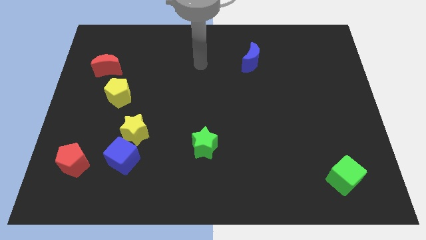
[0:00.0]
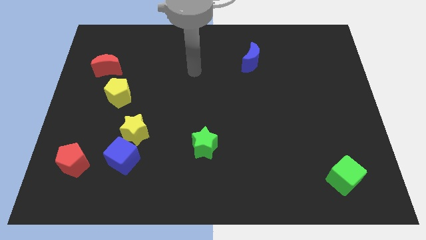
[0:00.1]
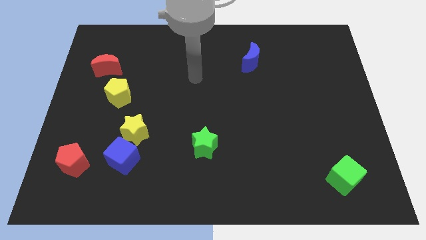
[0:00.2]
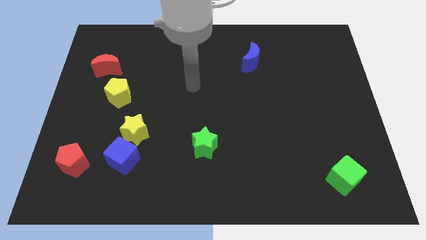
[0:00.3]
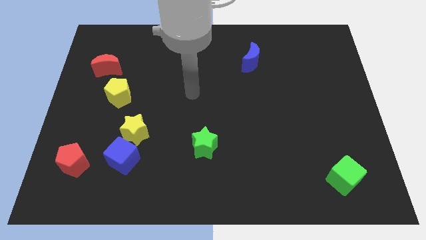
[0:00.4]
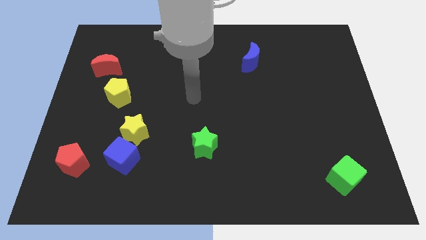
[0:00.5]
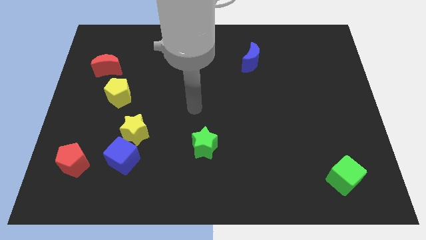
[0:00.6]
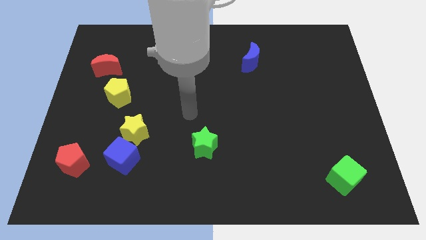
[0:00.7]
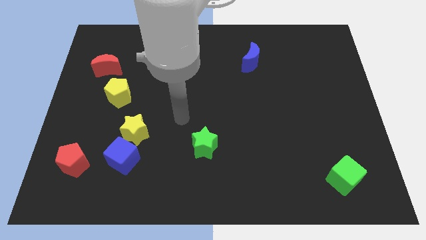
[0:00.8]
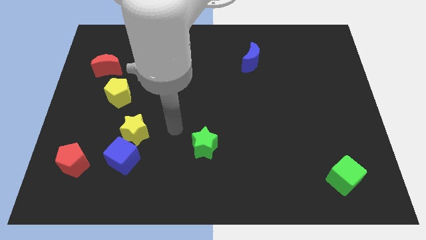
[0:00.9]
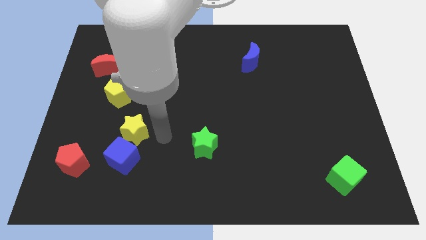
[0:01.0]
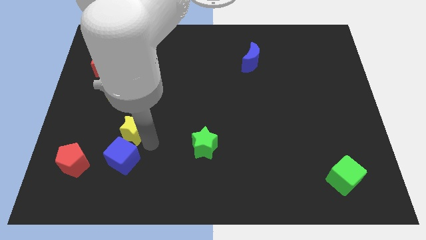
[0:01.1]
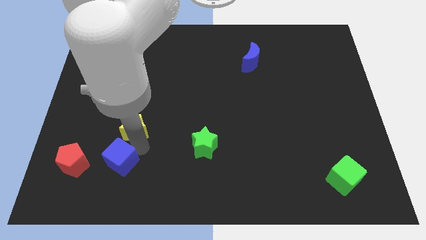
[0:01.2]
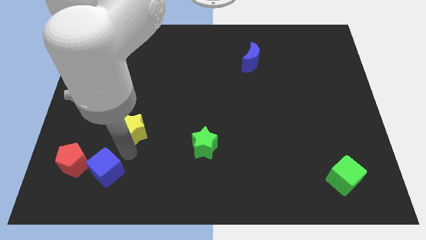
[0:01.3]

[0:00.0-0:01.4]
move the yellow star away from the blue cube

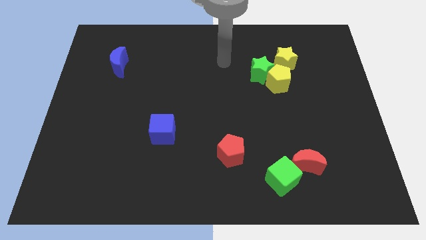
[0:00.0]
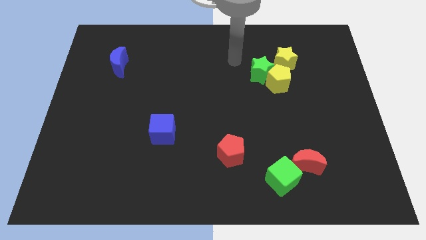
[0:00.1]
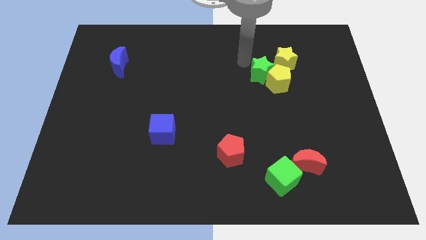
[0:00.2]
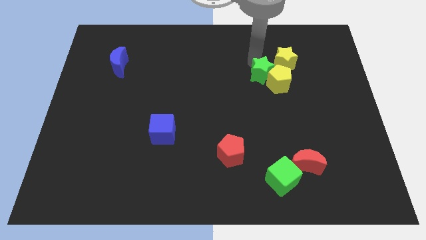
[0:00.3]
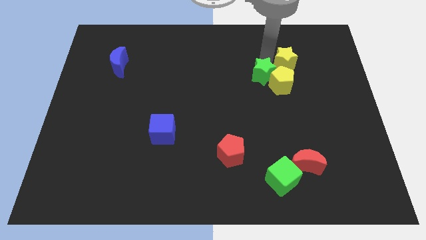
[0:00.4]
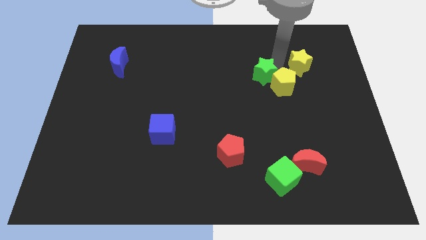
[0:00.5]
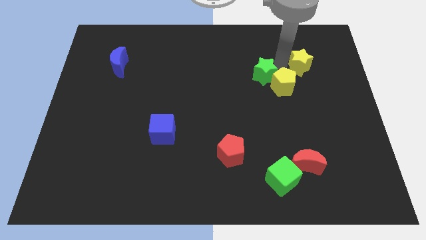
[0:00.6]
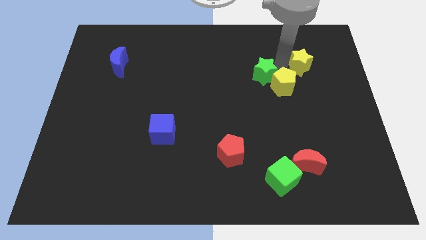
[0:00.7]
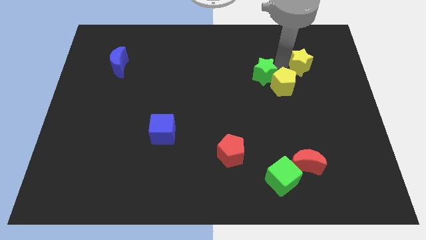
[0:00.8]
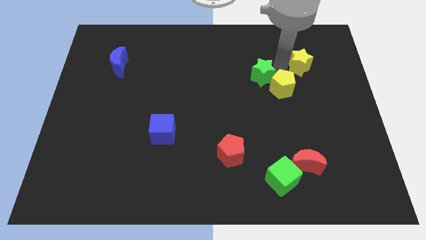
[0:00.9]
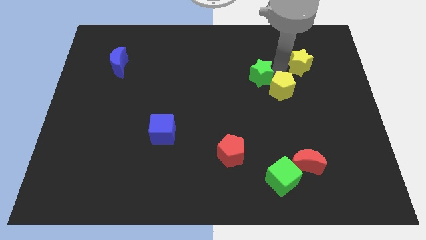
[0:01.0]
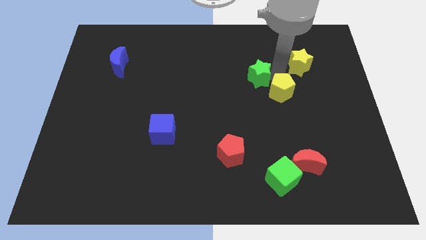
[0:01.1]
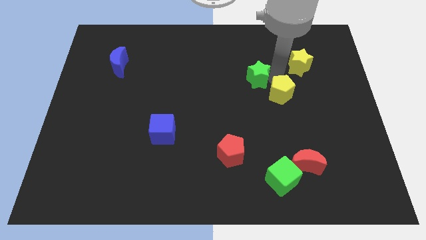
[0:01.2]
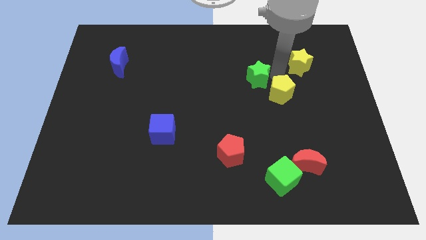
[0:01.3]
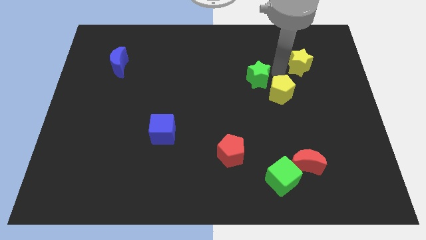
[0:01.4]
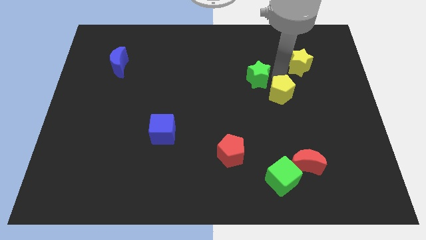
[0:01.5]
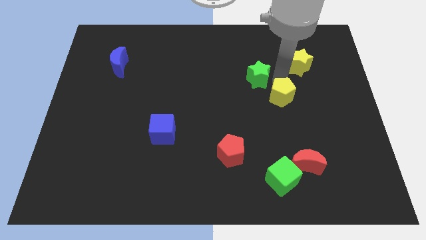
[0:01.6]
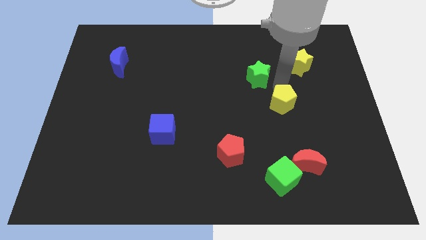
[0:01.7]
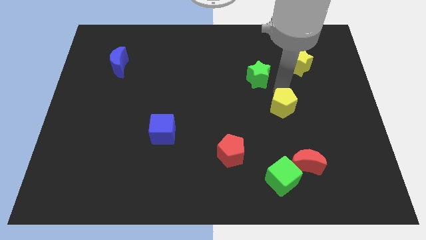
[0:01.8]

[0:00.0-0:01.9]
move the yellow pentagon away from the green star and yellow star

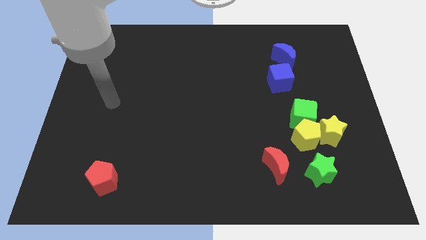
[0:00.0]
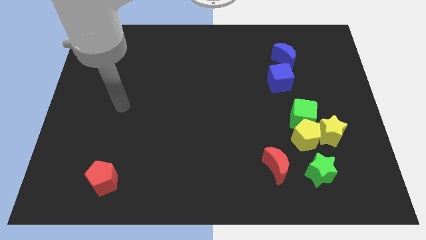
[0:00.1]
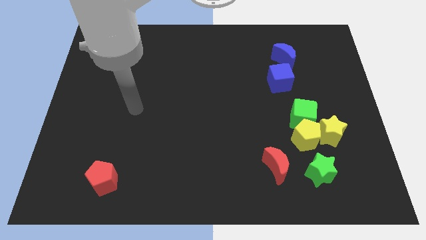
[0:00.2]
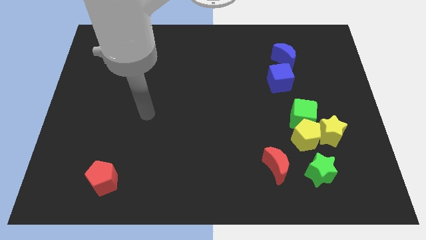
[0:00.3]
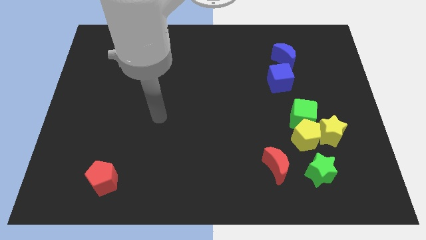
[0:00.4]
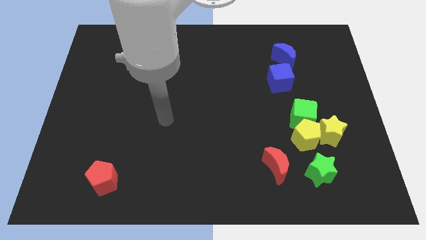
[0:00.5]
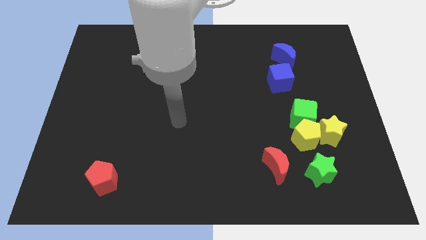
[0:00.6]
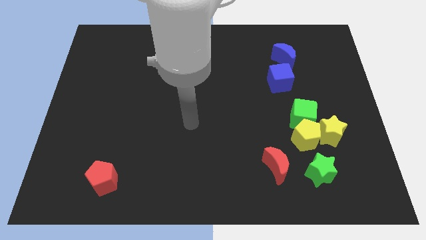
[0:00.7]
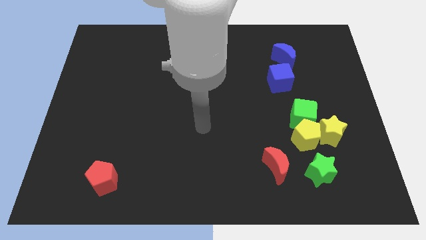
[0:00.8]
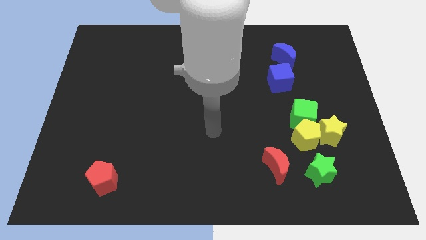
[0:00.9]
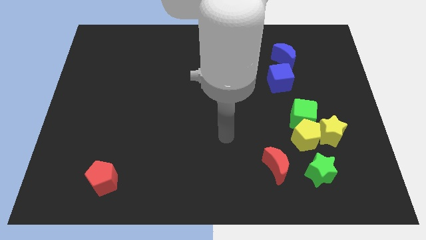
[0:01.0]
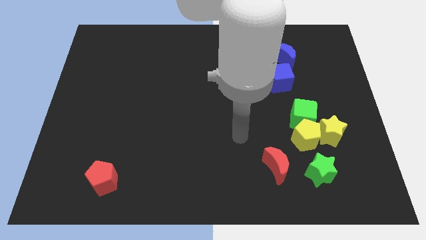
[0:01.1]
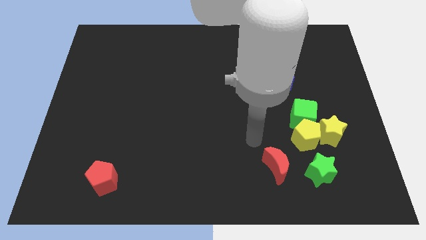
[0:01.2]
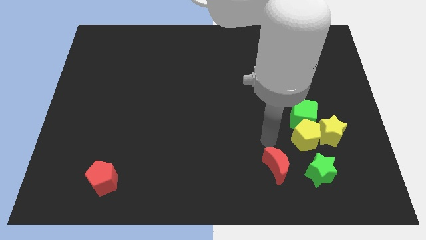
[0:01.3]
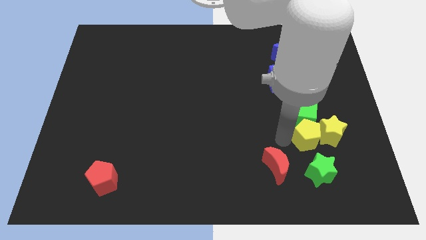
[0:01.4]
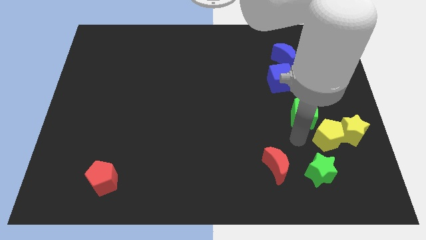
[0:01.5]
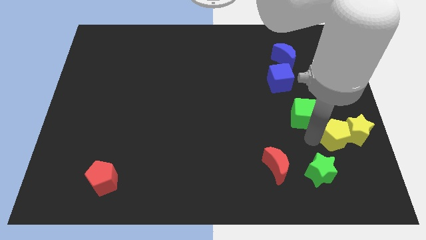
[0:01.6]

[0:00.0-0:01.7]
move the green cube away from the yellow pentagon and yellow star

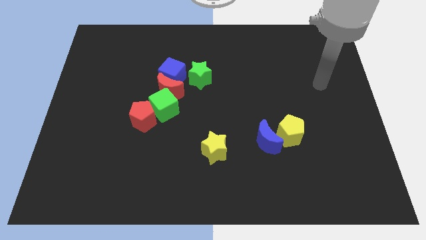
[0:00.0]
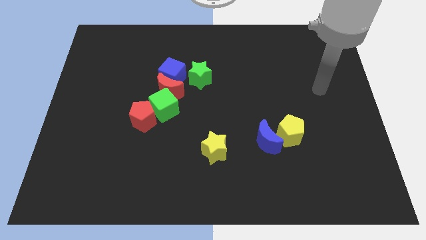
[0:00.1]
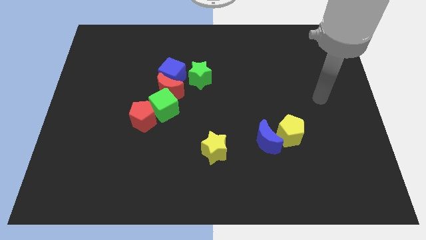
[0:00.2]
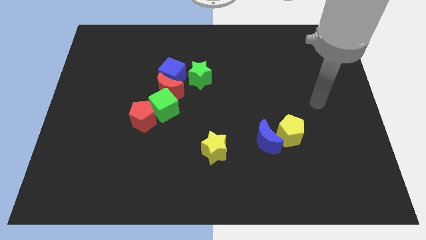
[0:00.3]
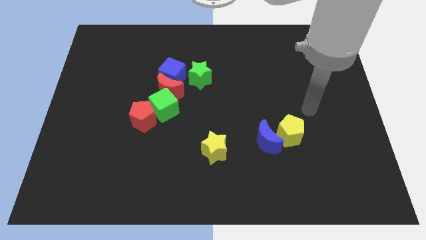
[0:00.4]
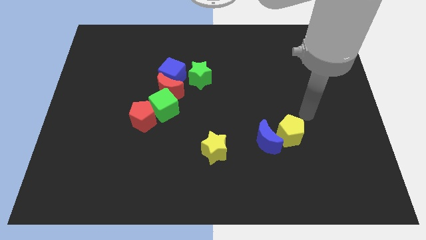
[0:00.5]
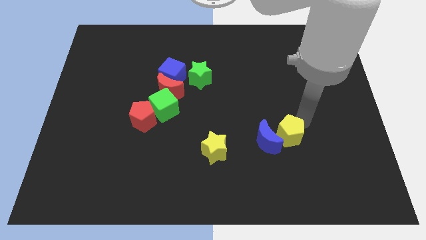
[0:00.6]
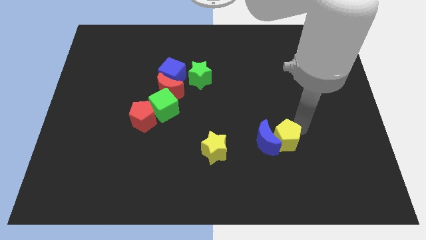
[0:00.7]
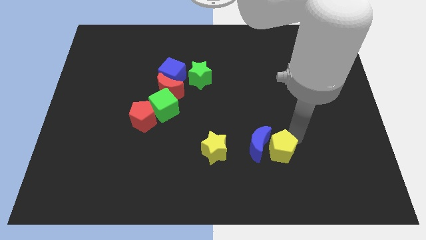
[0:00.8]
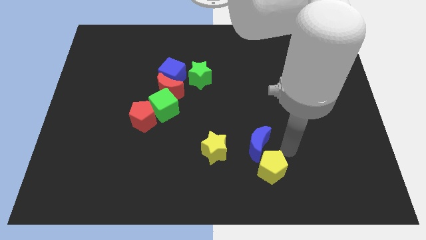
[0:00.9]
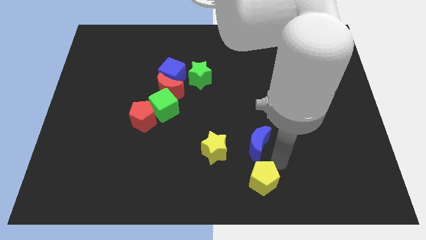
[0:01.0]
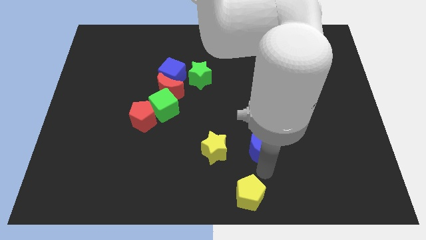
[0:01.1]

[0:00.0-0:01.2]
separate the blue moon from the yellow pentagon

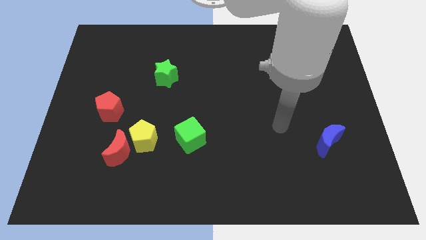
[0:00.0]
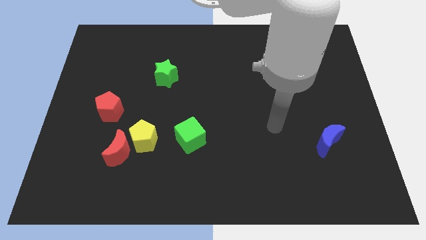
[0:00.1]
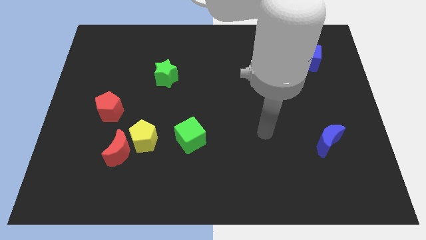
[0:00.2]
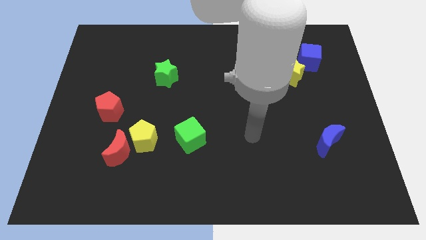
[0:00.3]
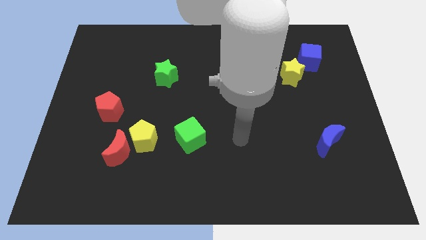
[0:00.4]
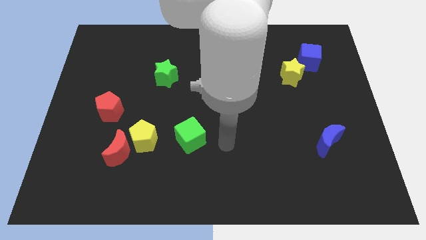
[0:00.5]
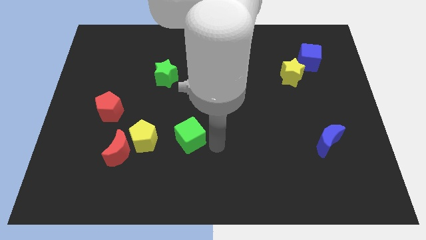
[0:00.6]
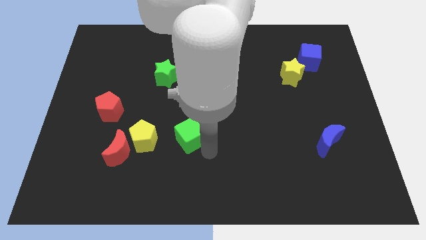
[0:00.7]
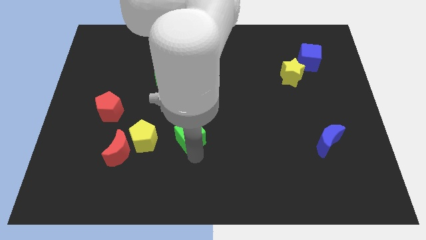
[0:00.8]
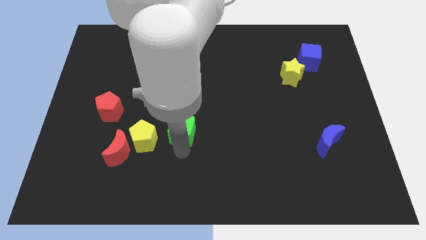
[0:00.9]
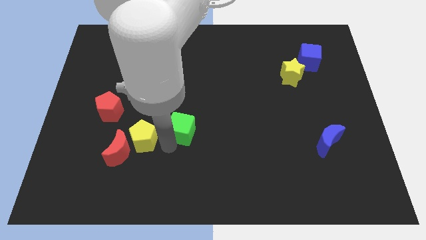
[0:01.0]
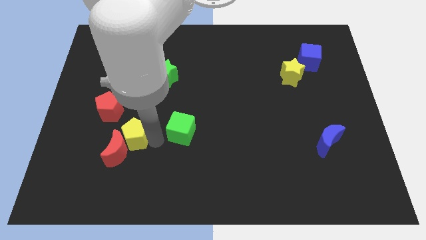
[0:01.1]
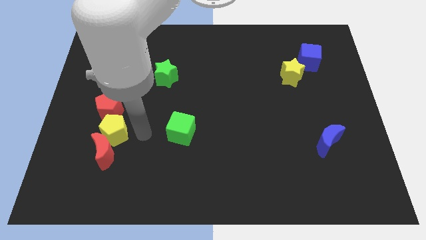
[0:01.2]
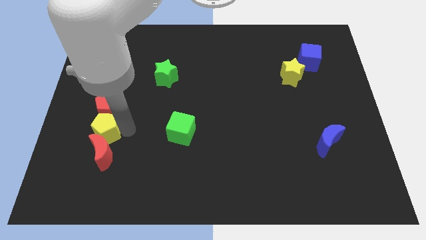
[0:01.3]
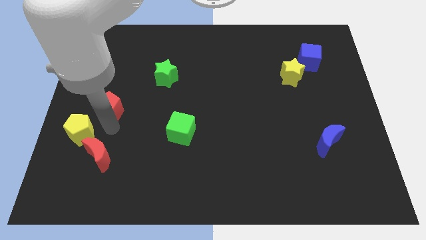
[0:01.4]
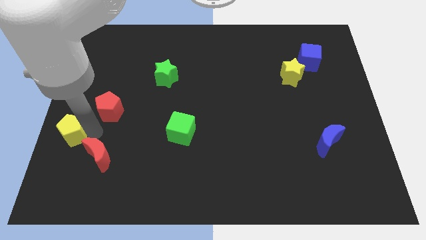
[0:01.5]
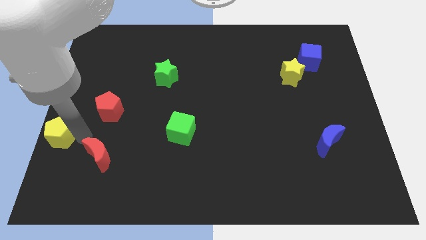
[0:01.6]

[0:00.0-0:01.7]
pull the red moon apart from the yellow pentagon

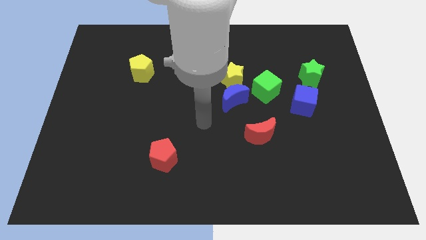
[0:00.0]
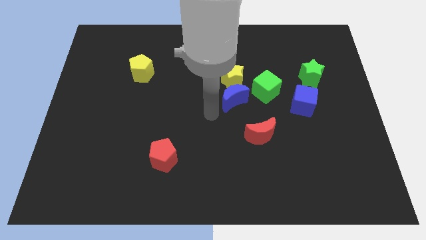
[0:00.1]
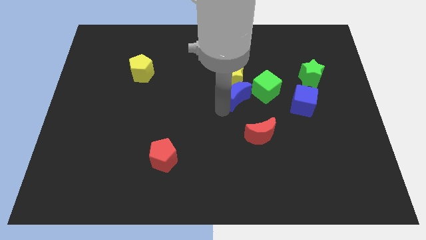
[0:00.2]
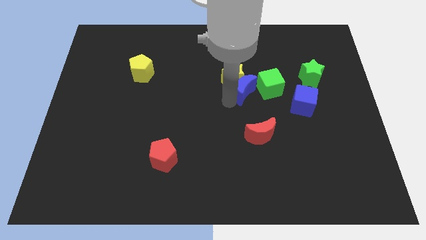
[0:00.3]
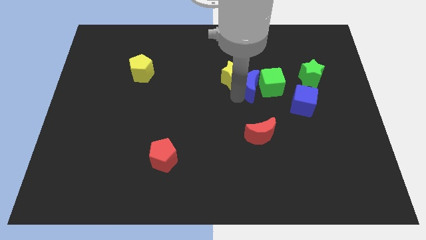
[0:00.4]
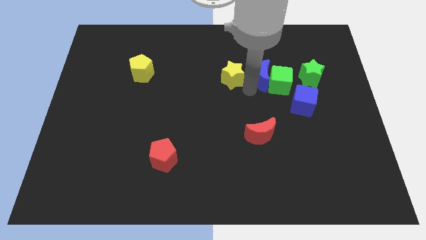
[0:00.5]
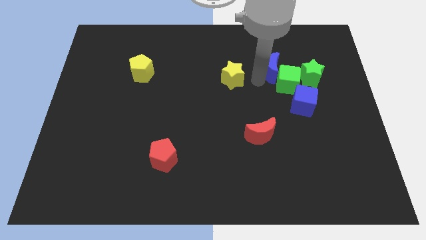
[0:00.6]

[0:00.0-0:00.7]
move the yellow star away from the blue moon and green cube

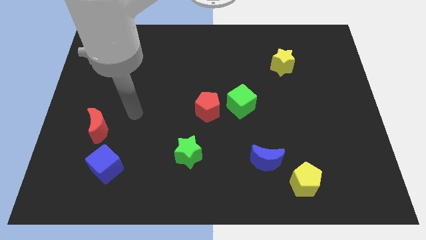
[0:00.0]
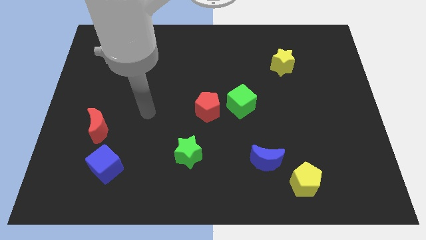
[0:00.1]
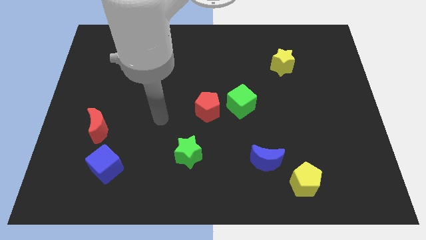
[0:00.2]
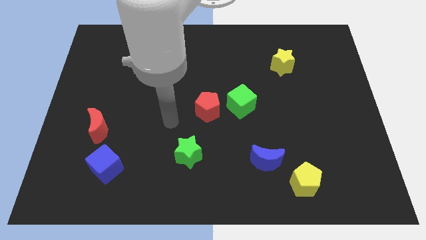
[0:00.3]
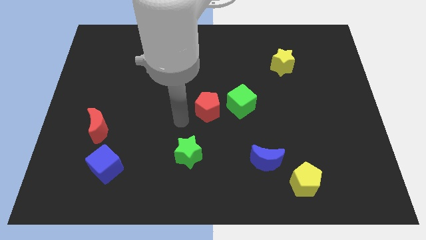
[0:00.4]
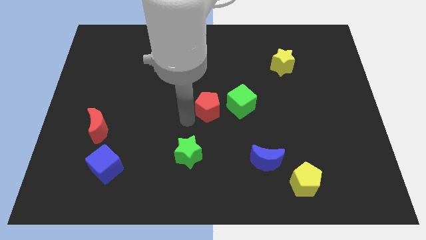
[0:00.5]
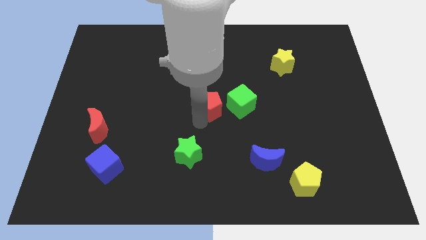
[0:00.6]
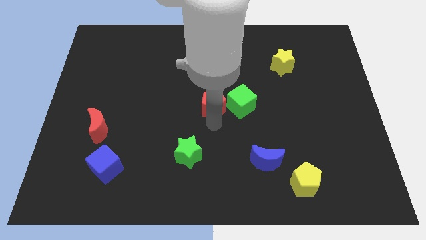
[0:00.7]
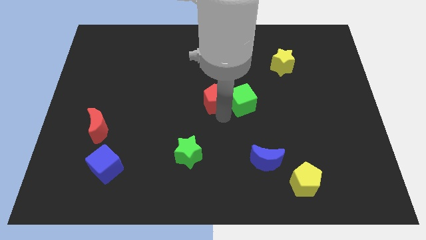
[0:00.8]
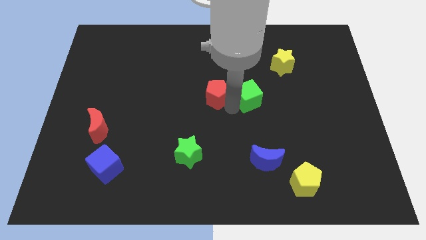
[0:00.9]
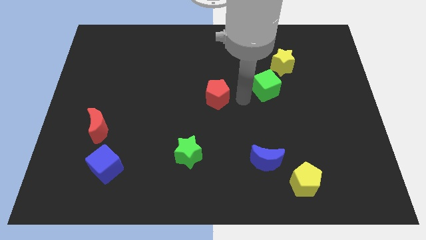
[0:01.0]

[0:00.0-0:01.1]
separate the red pentagon from the green cube
